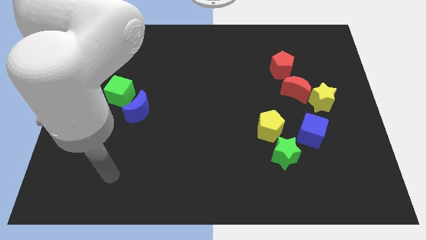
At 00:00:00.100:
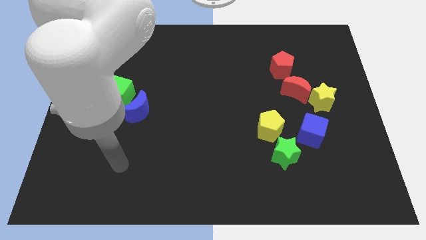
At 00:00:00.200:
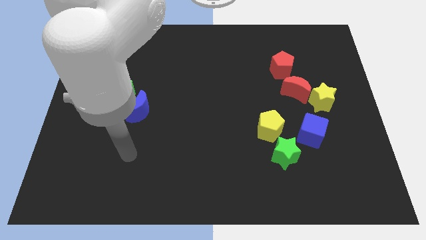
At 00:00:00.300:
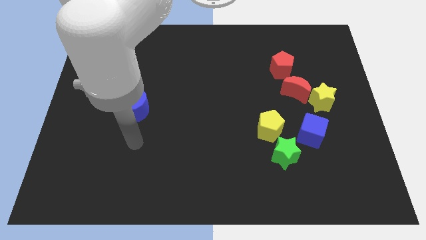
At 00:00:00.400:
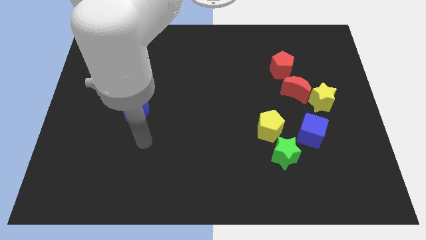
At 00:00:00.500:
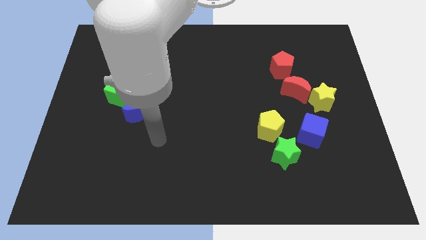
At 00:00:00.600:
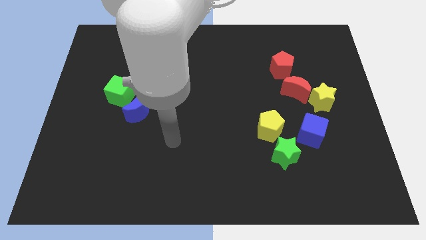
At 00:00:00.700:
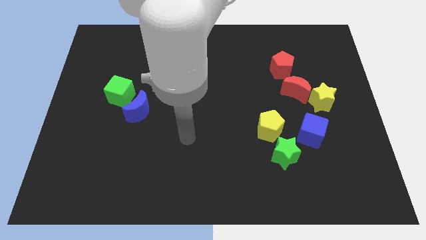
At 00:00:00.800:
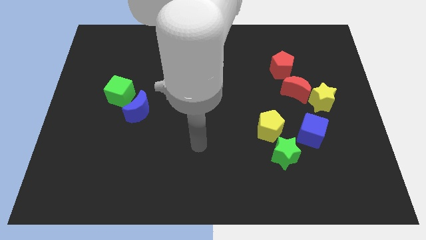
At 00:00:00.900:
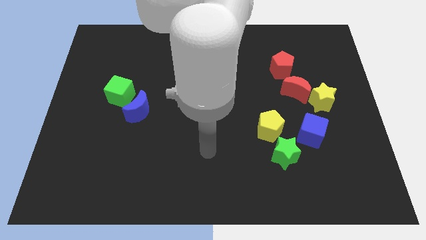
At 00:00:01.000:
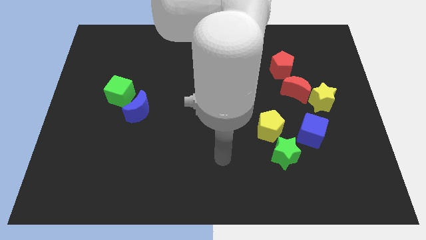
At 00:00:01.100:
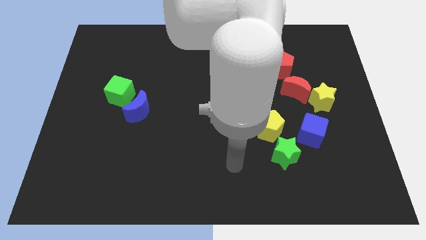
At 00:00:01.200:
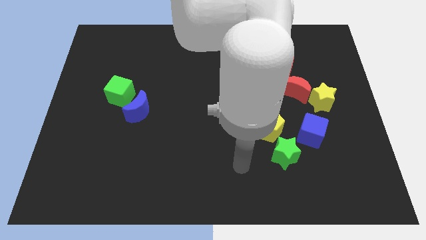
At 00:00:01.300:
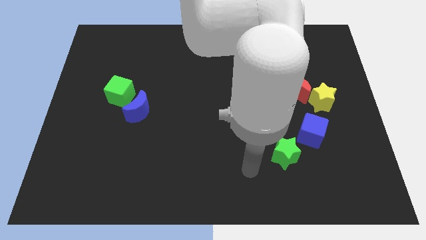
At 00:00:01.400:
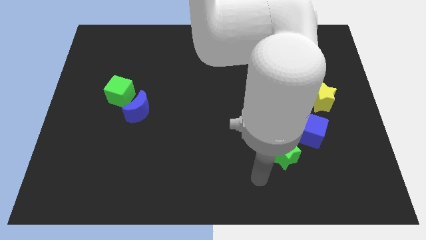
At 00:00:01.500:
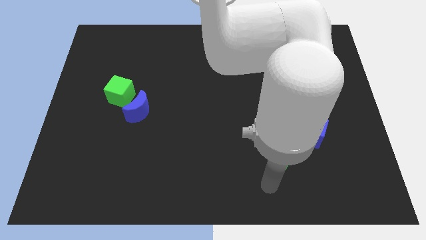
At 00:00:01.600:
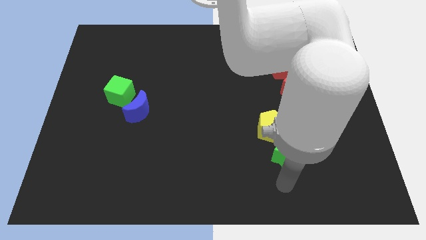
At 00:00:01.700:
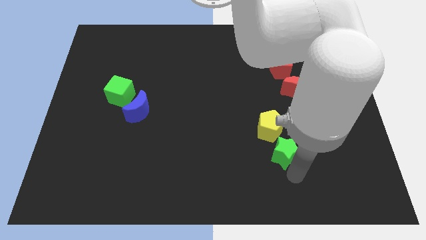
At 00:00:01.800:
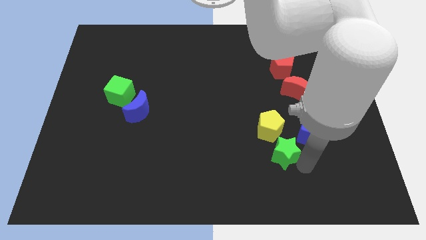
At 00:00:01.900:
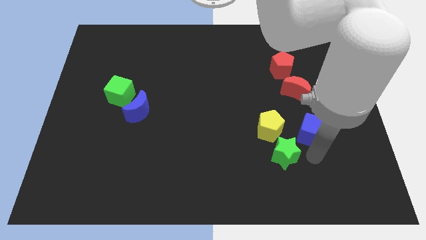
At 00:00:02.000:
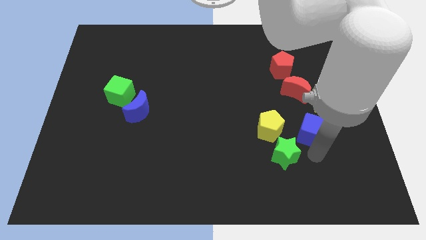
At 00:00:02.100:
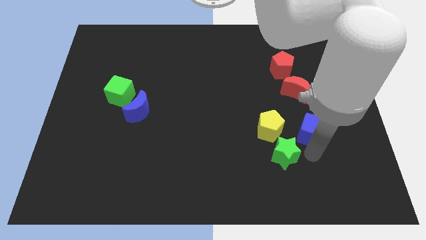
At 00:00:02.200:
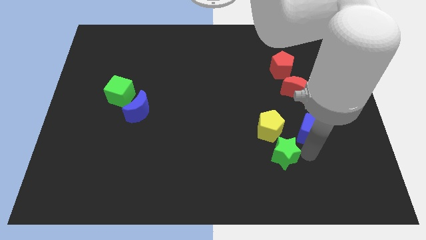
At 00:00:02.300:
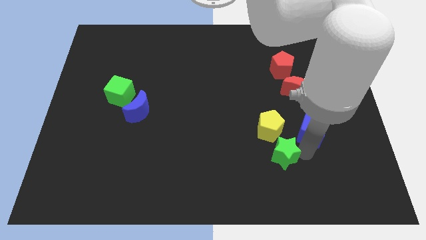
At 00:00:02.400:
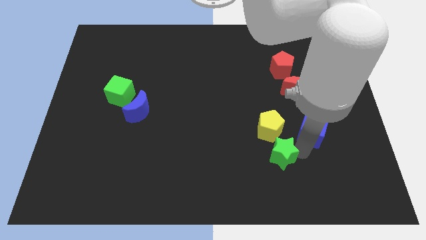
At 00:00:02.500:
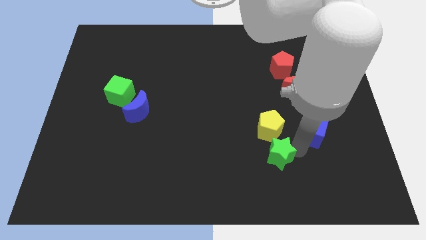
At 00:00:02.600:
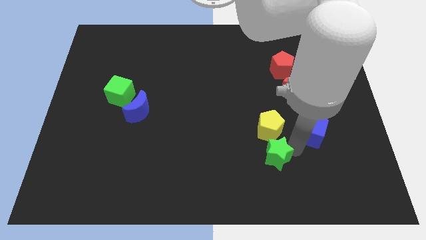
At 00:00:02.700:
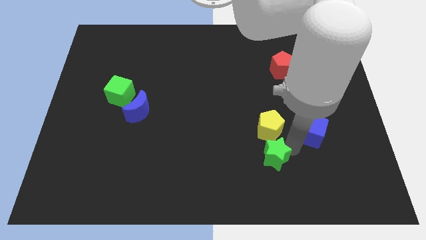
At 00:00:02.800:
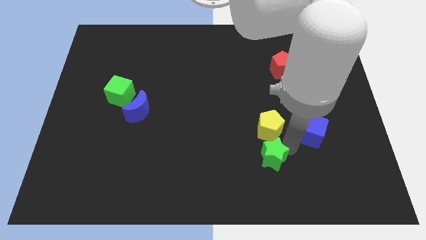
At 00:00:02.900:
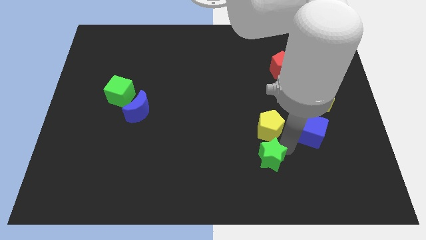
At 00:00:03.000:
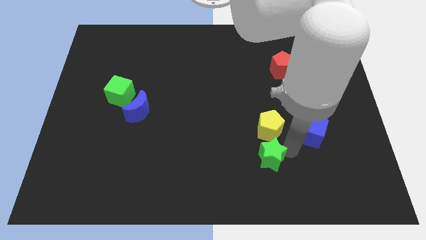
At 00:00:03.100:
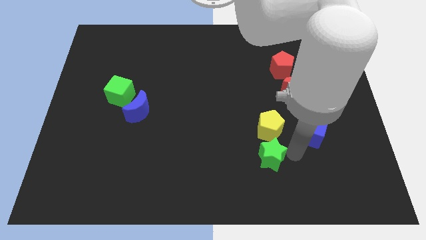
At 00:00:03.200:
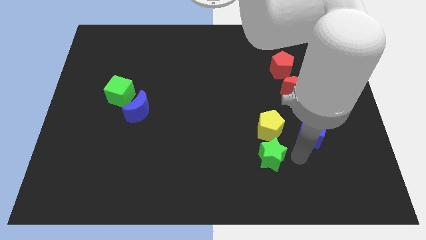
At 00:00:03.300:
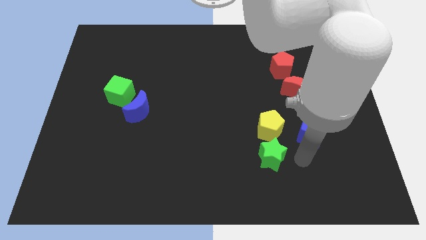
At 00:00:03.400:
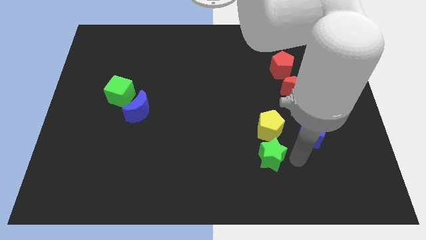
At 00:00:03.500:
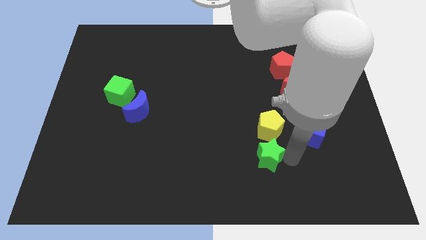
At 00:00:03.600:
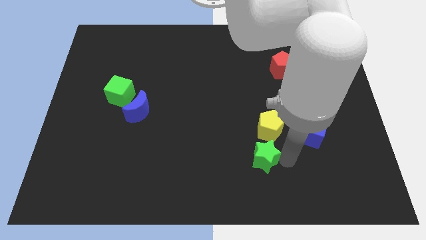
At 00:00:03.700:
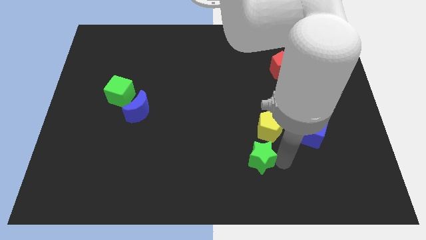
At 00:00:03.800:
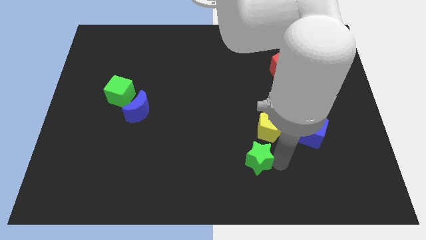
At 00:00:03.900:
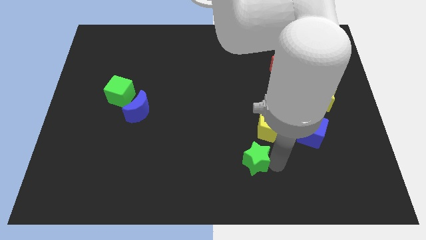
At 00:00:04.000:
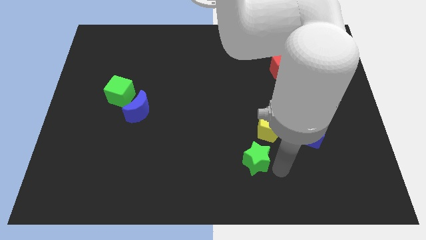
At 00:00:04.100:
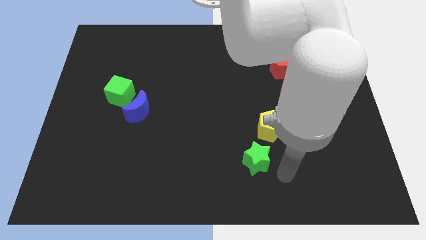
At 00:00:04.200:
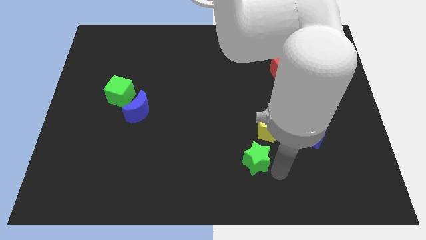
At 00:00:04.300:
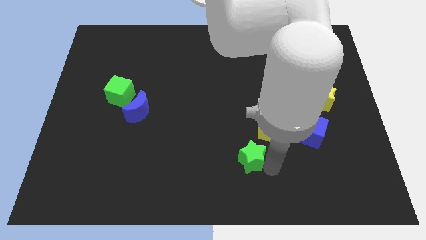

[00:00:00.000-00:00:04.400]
move the green star to the left somewhat

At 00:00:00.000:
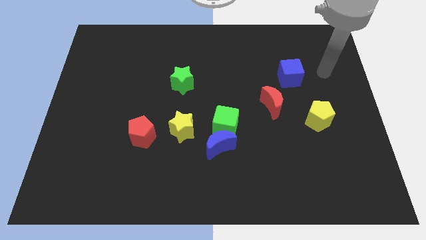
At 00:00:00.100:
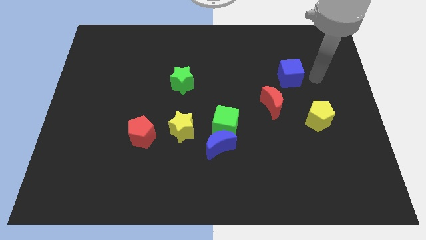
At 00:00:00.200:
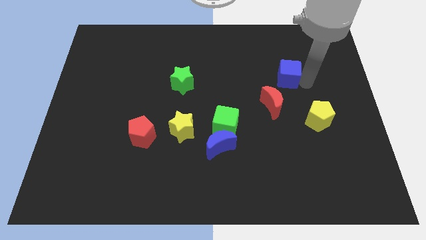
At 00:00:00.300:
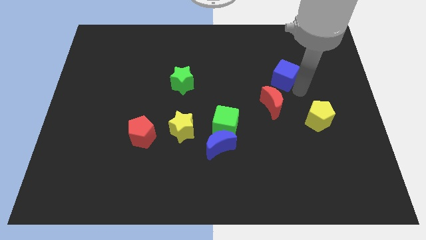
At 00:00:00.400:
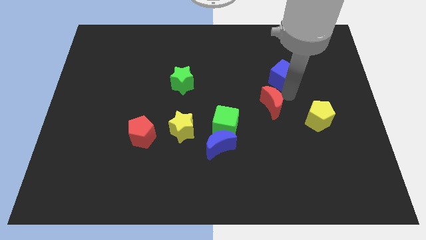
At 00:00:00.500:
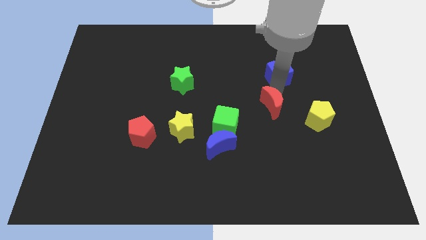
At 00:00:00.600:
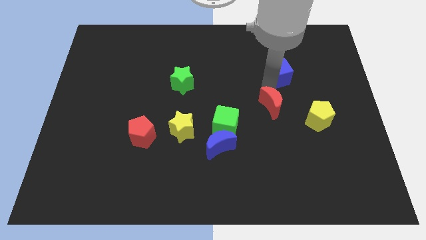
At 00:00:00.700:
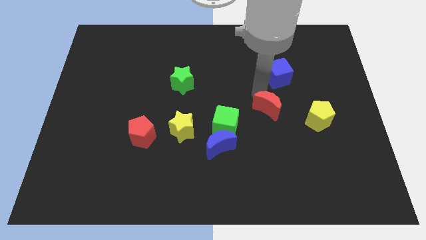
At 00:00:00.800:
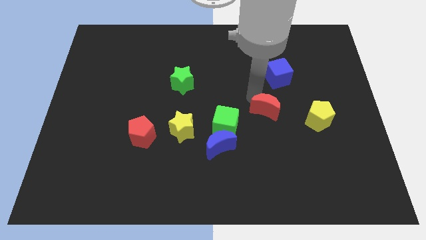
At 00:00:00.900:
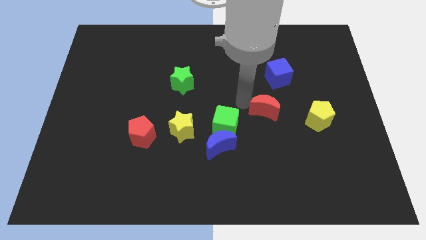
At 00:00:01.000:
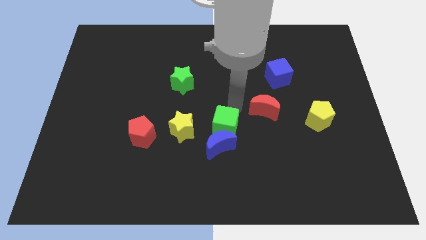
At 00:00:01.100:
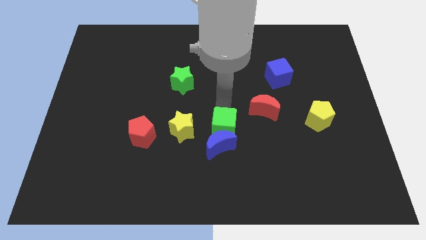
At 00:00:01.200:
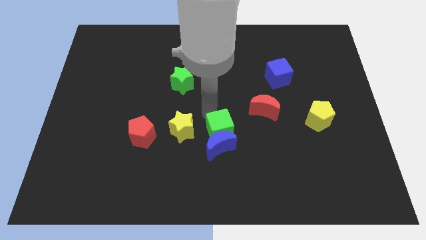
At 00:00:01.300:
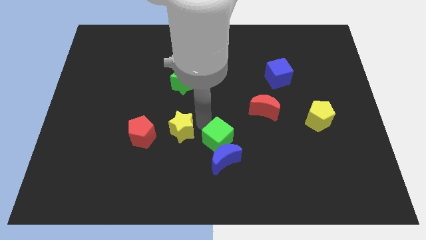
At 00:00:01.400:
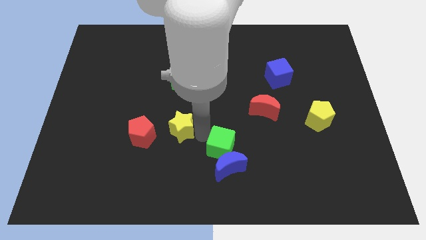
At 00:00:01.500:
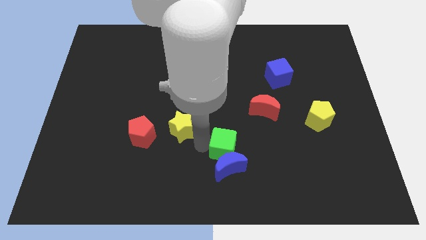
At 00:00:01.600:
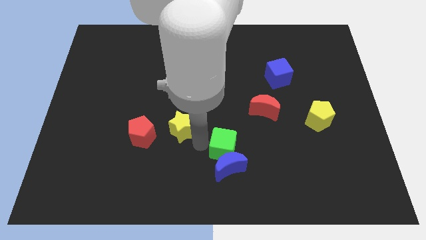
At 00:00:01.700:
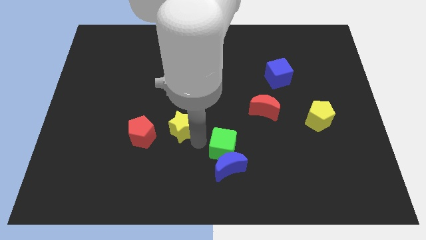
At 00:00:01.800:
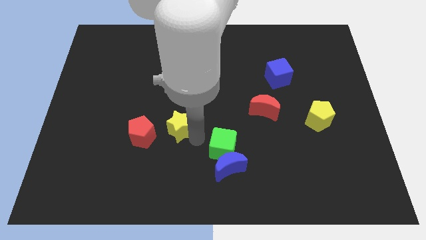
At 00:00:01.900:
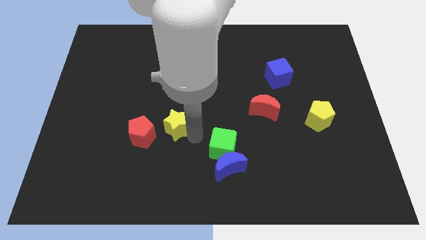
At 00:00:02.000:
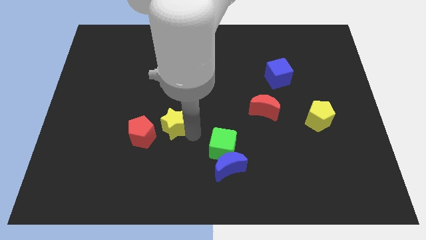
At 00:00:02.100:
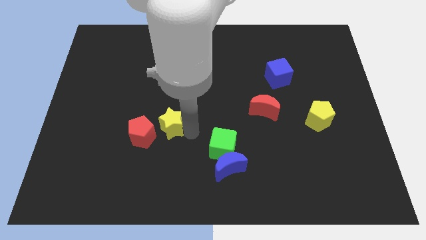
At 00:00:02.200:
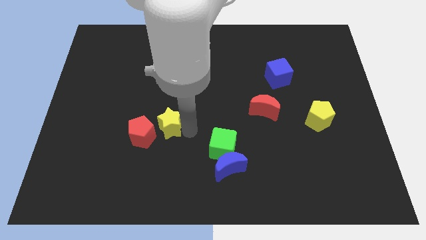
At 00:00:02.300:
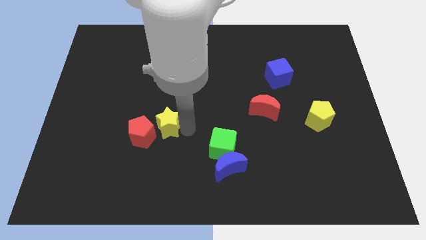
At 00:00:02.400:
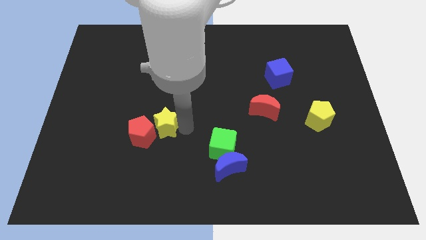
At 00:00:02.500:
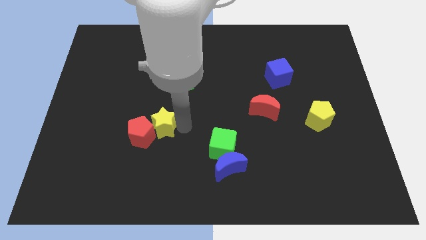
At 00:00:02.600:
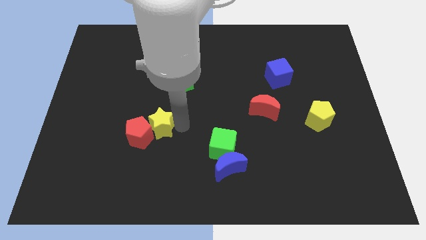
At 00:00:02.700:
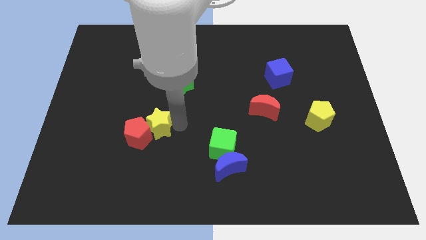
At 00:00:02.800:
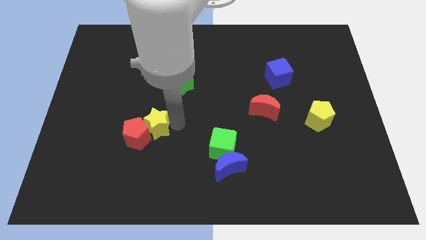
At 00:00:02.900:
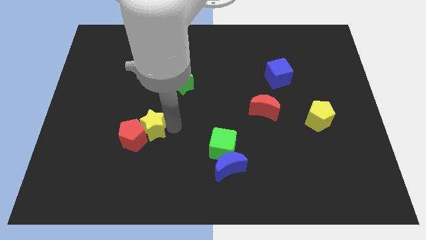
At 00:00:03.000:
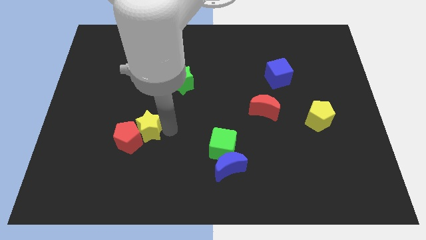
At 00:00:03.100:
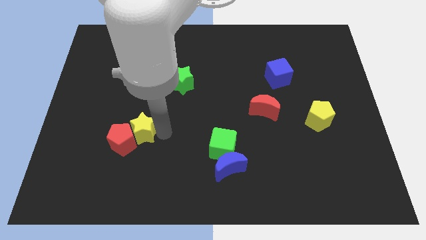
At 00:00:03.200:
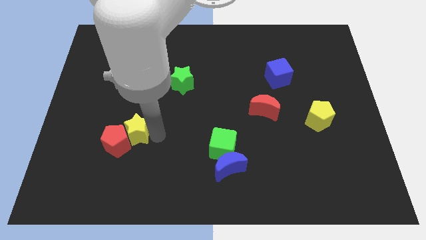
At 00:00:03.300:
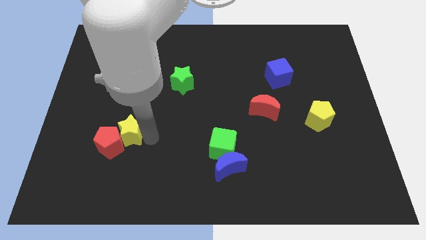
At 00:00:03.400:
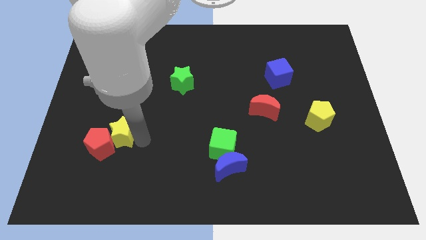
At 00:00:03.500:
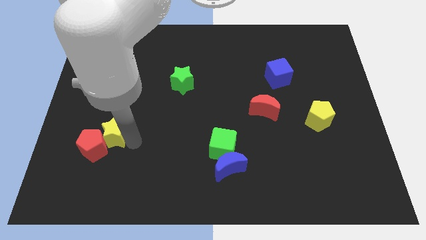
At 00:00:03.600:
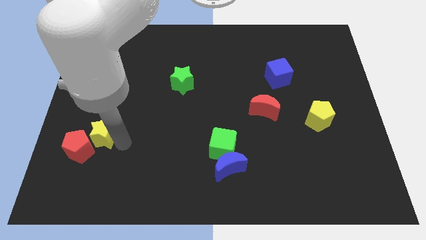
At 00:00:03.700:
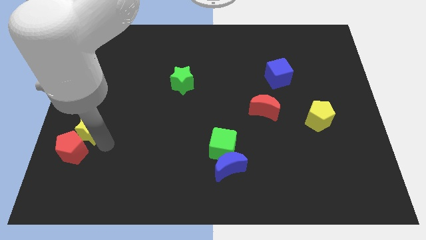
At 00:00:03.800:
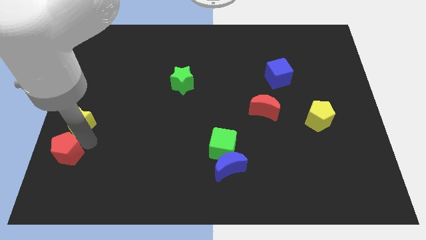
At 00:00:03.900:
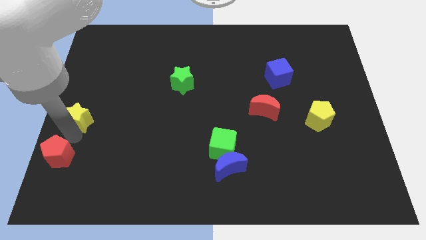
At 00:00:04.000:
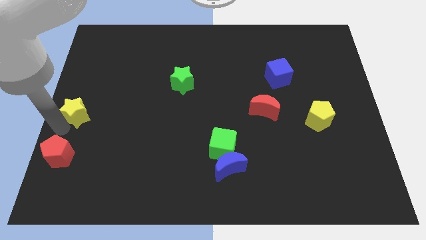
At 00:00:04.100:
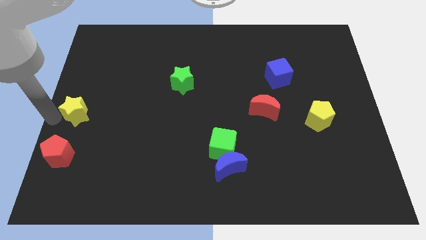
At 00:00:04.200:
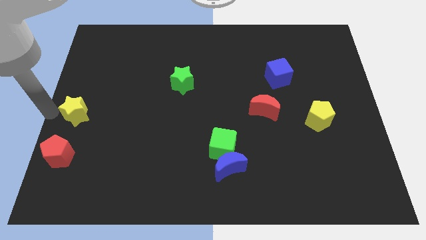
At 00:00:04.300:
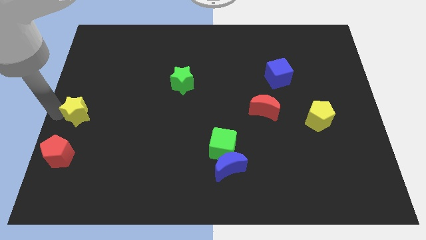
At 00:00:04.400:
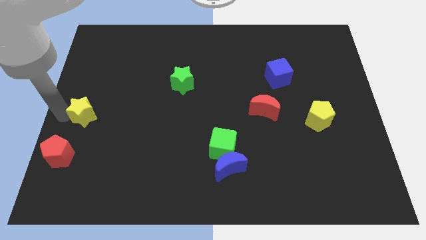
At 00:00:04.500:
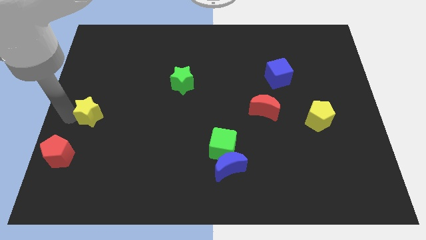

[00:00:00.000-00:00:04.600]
slide the yellow star up and left diagonally a little
